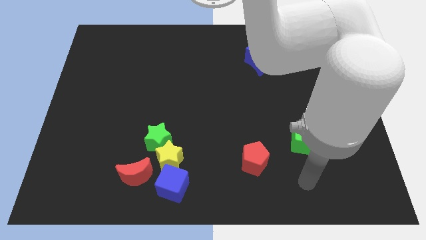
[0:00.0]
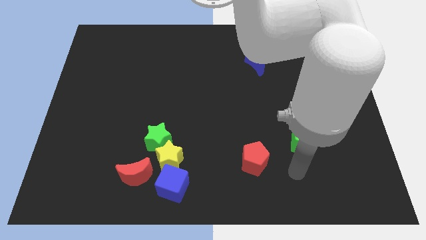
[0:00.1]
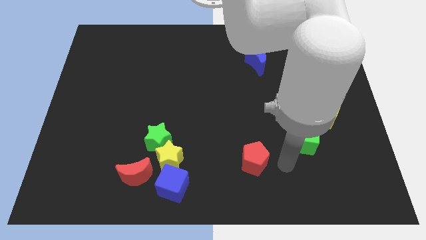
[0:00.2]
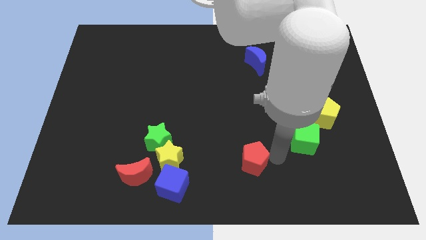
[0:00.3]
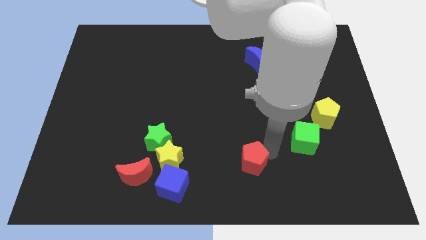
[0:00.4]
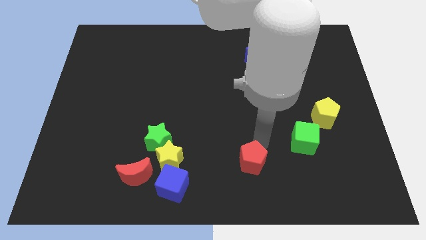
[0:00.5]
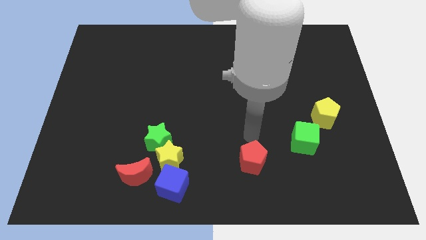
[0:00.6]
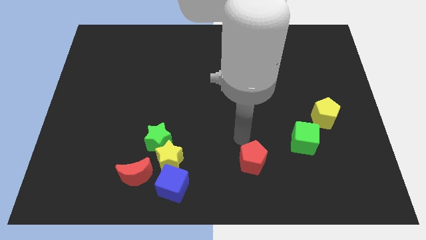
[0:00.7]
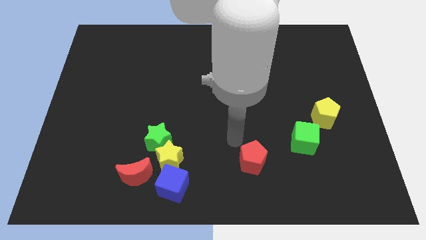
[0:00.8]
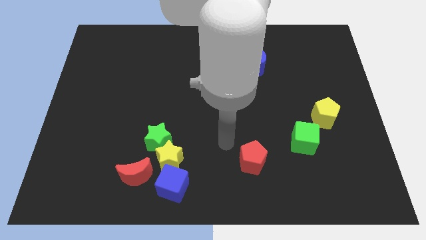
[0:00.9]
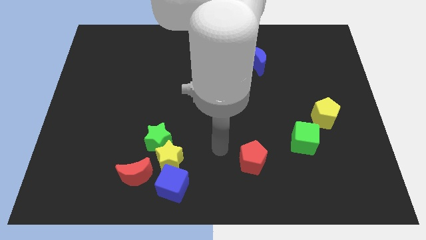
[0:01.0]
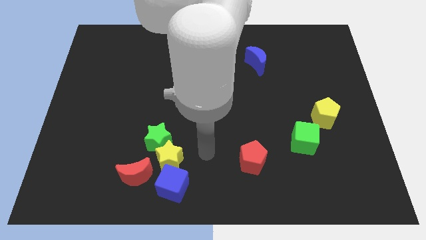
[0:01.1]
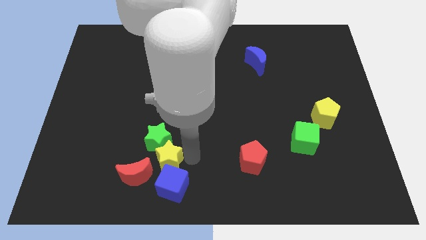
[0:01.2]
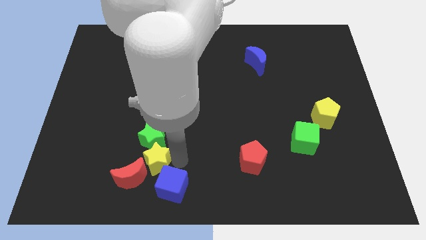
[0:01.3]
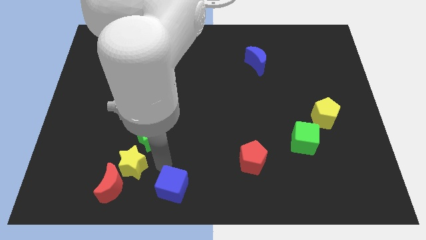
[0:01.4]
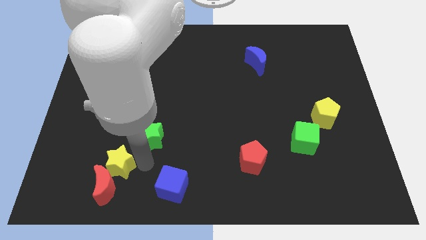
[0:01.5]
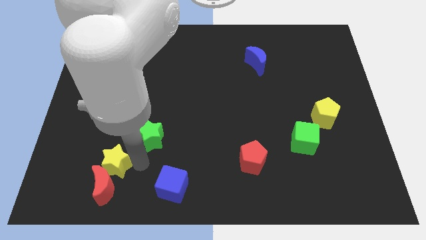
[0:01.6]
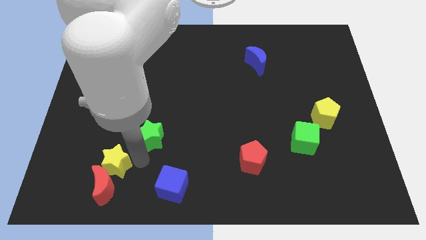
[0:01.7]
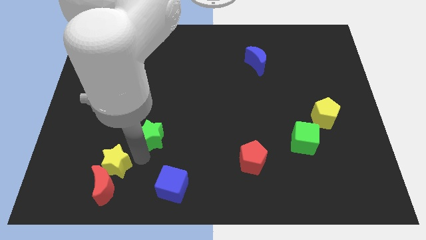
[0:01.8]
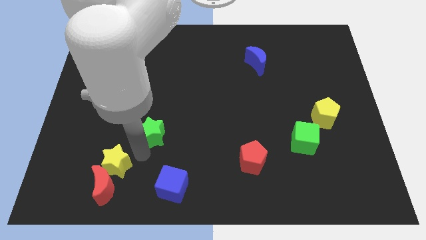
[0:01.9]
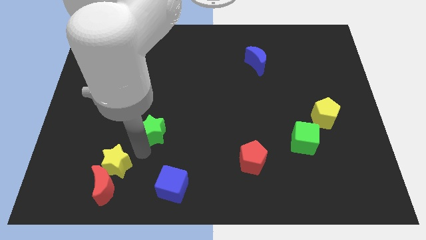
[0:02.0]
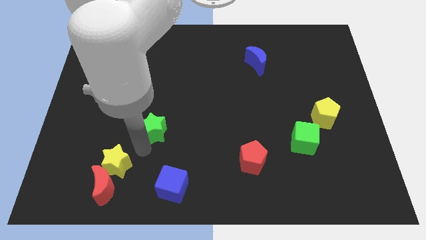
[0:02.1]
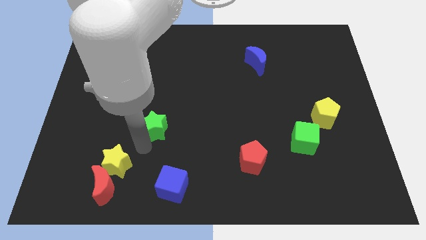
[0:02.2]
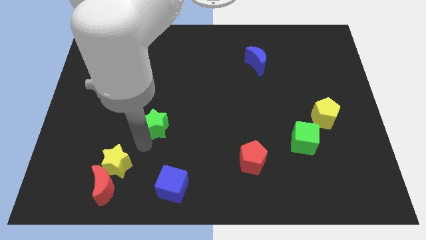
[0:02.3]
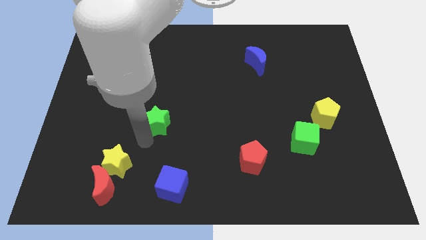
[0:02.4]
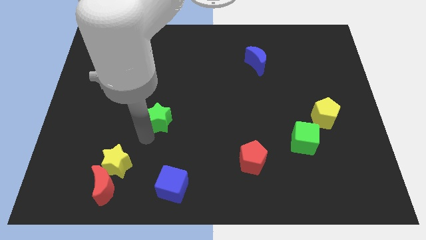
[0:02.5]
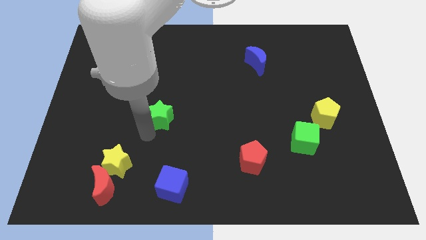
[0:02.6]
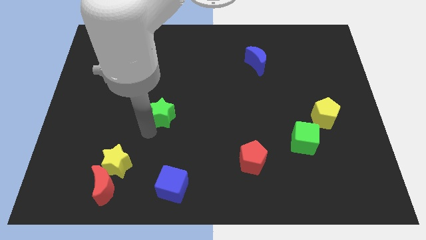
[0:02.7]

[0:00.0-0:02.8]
slide the green star up a little

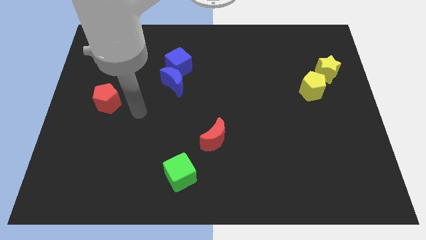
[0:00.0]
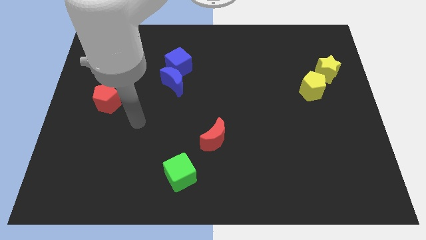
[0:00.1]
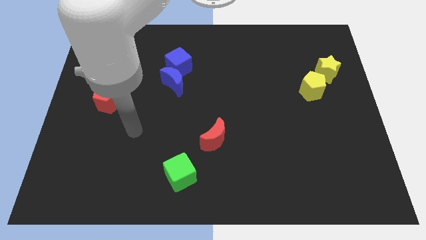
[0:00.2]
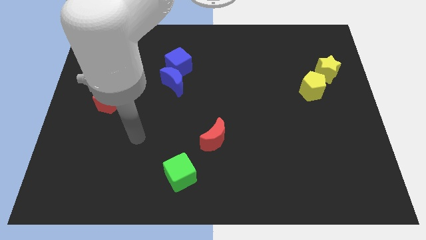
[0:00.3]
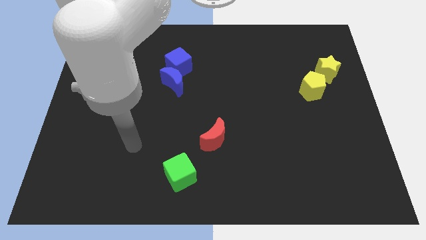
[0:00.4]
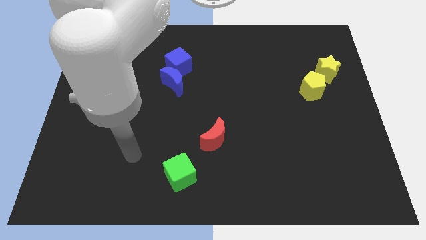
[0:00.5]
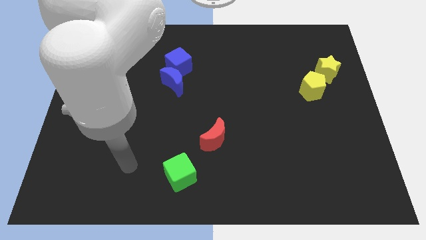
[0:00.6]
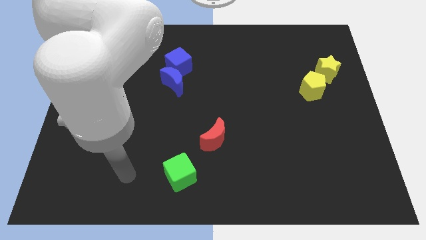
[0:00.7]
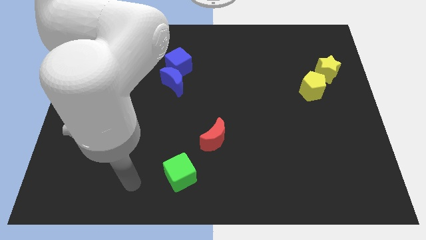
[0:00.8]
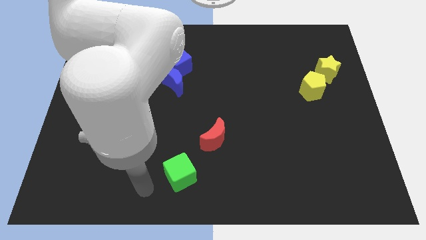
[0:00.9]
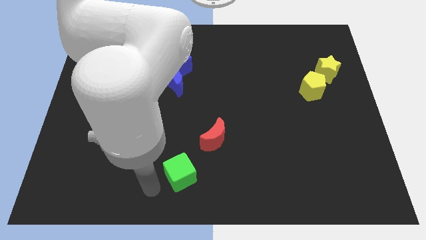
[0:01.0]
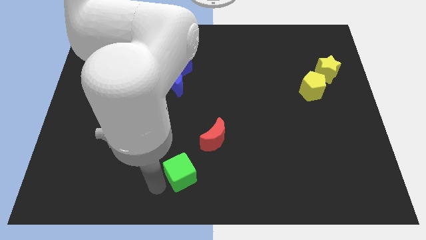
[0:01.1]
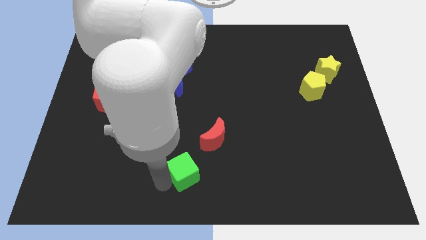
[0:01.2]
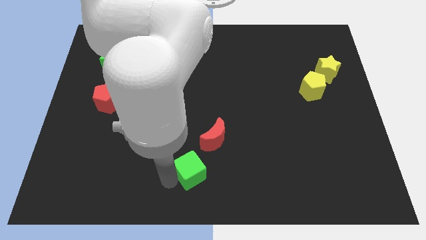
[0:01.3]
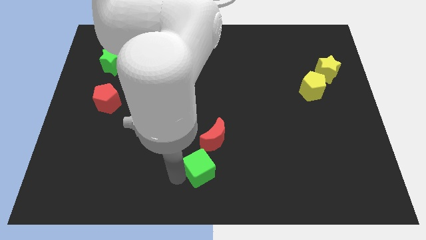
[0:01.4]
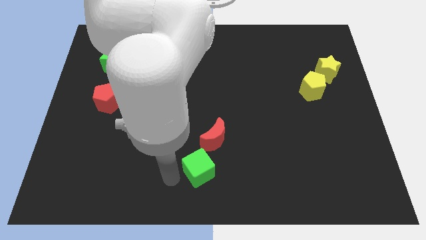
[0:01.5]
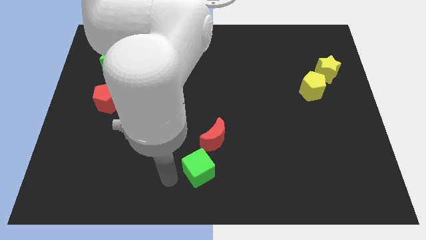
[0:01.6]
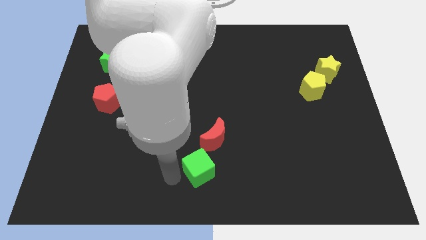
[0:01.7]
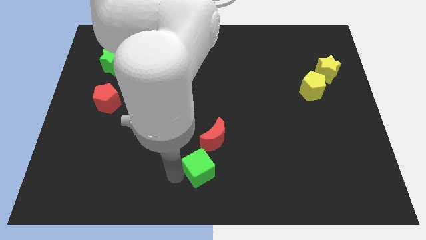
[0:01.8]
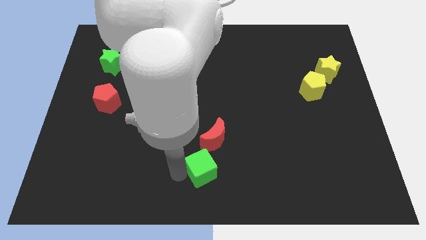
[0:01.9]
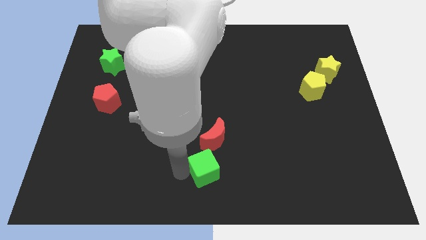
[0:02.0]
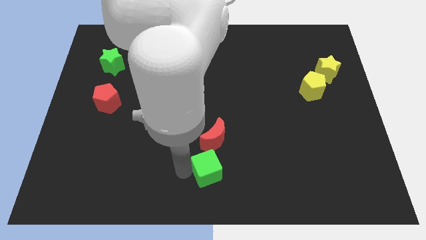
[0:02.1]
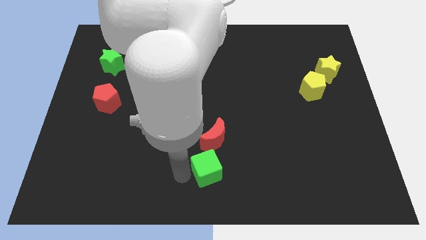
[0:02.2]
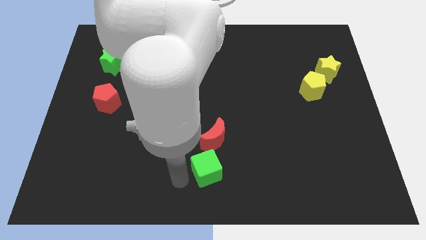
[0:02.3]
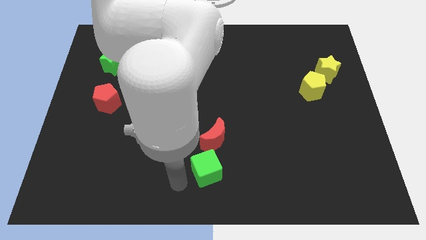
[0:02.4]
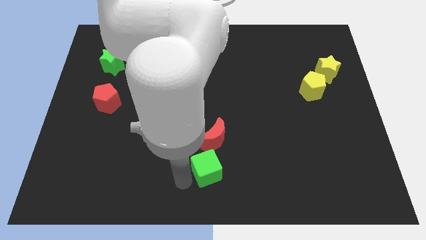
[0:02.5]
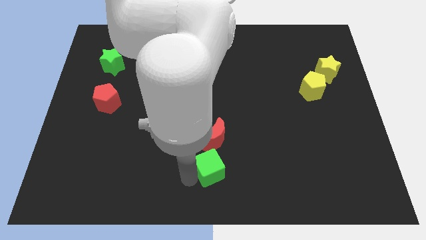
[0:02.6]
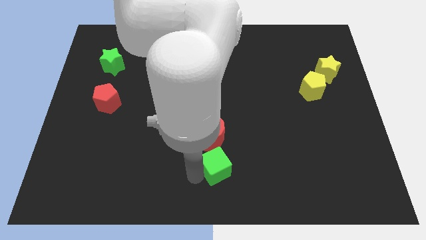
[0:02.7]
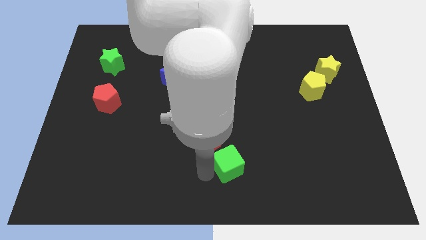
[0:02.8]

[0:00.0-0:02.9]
move the green cube diagonally up and right a bit

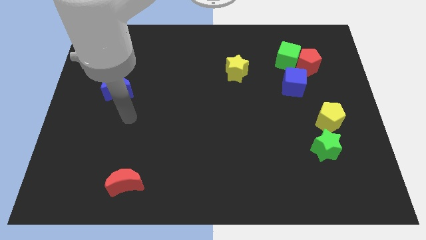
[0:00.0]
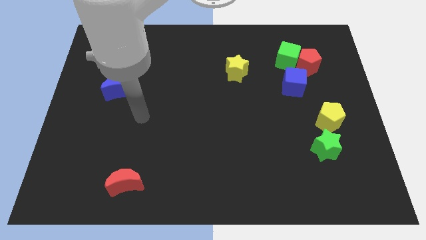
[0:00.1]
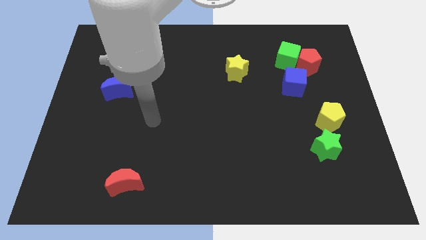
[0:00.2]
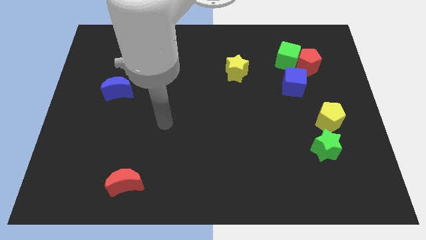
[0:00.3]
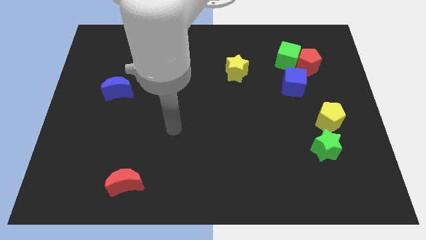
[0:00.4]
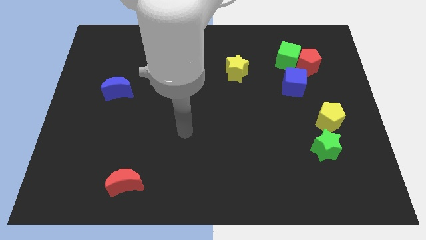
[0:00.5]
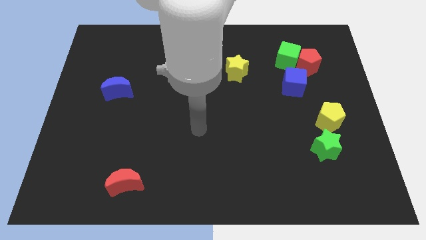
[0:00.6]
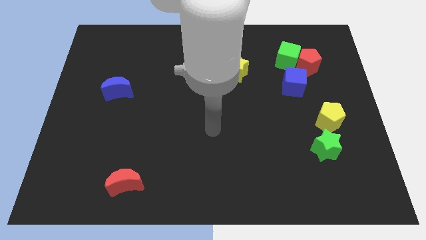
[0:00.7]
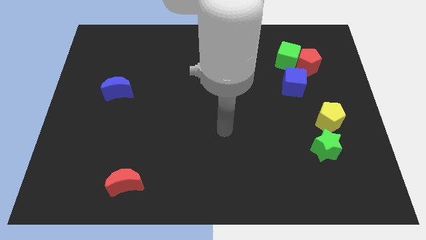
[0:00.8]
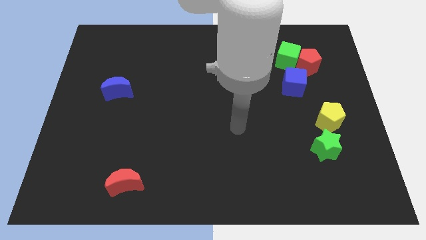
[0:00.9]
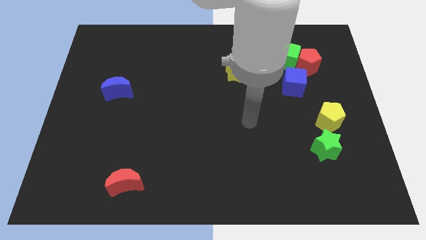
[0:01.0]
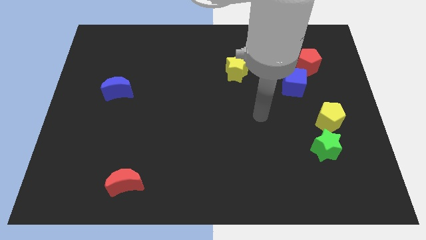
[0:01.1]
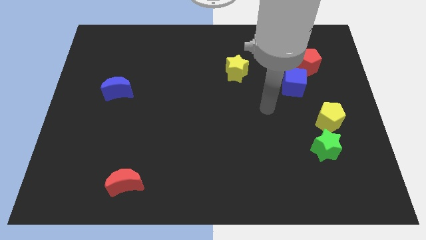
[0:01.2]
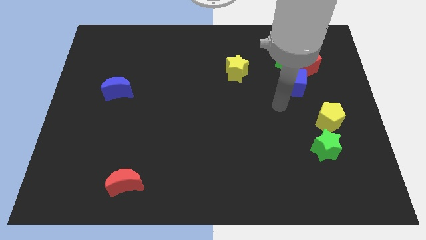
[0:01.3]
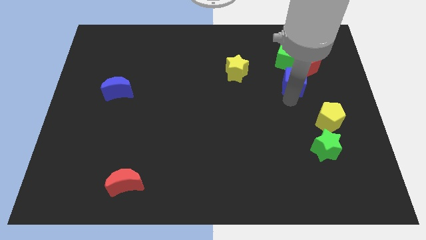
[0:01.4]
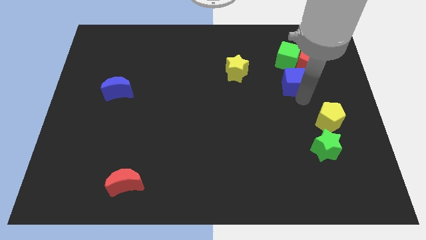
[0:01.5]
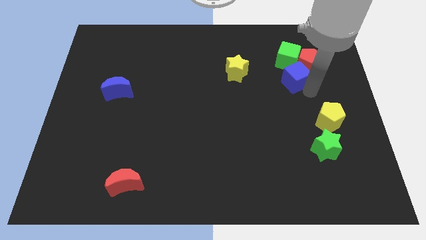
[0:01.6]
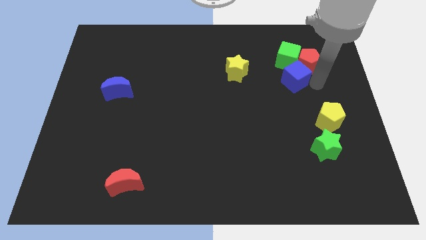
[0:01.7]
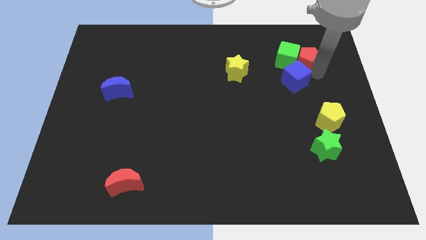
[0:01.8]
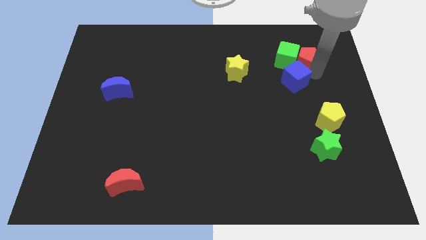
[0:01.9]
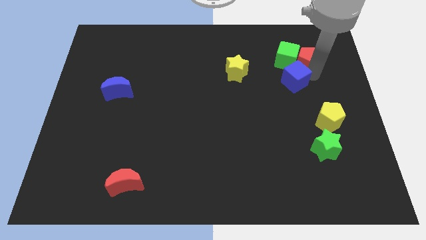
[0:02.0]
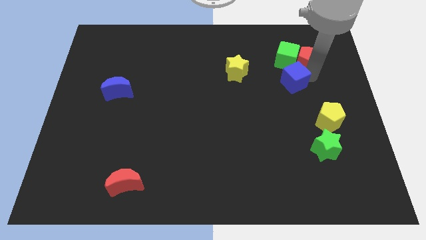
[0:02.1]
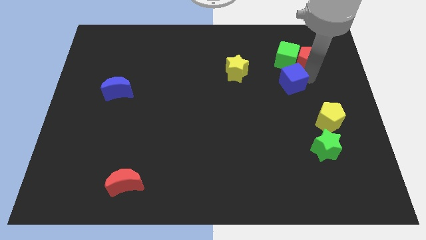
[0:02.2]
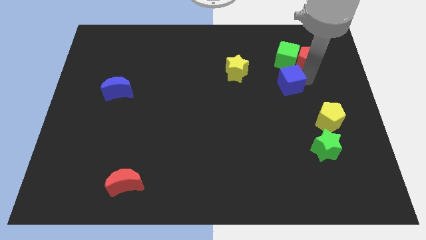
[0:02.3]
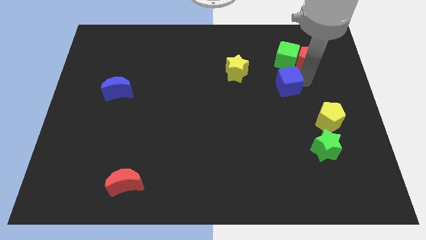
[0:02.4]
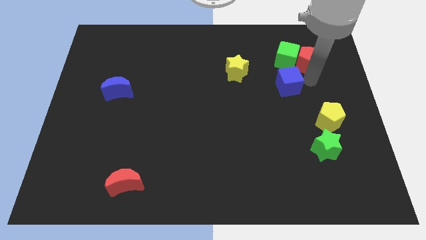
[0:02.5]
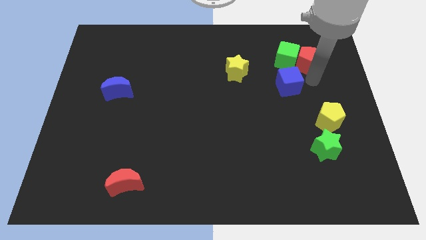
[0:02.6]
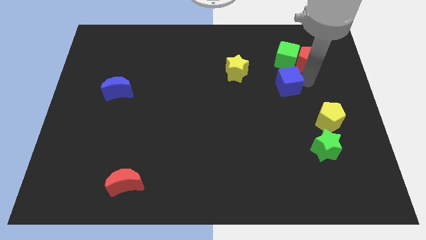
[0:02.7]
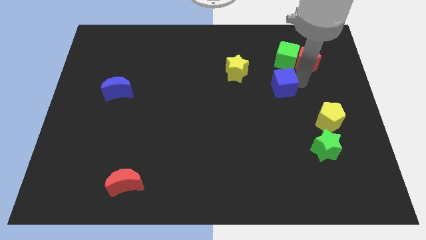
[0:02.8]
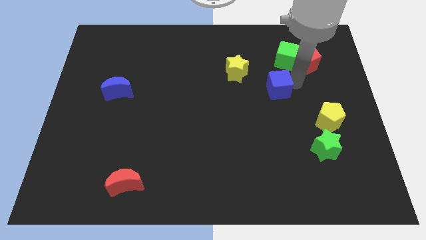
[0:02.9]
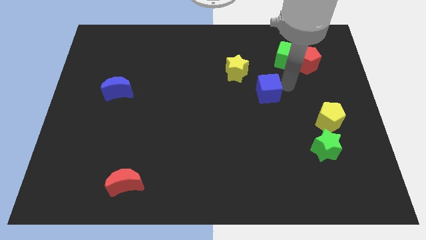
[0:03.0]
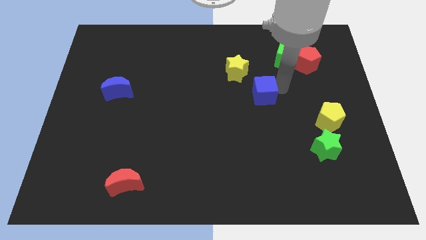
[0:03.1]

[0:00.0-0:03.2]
move the blue cube left somewhat
